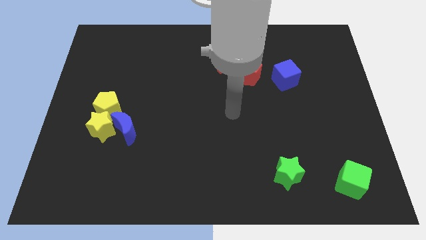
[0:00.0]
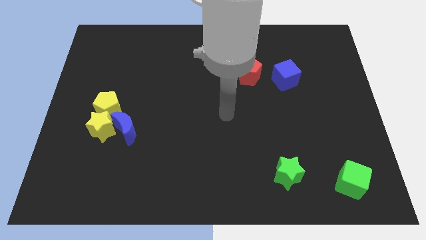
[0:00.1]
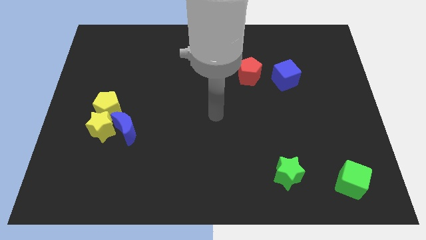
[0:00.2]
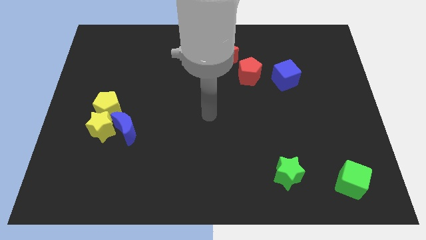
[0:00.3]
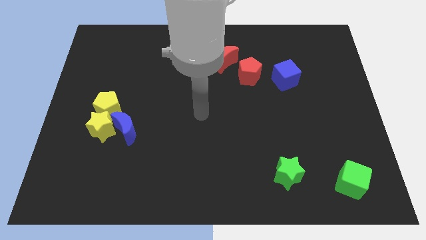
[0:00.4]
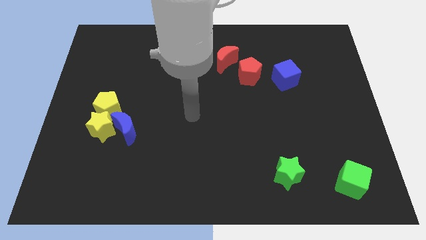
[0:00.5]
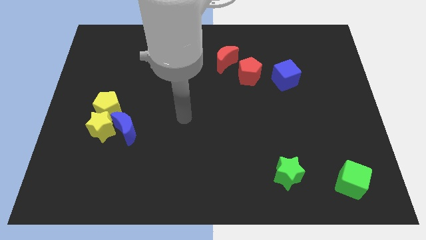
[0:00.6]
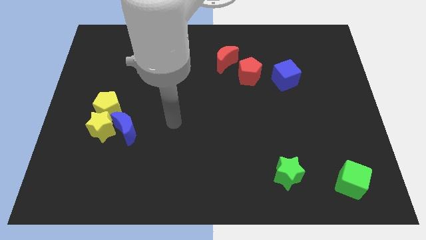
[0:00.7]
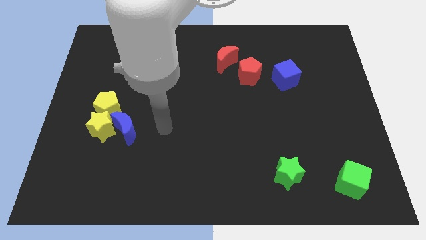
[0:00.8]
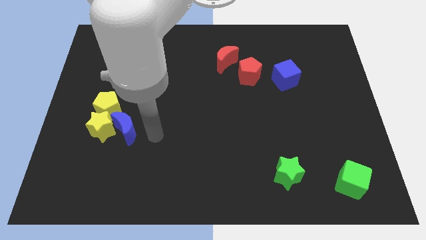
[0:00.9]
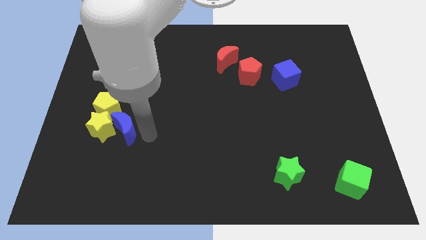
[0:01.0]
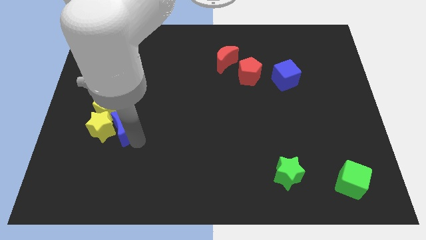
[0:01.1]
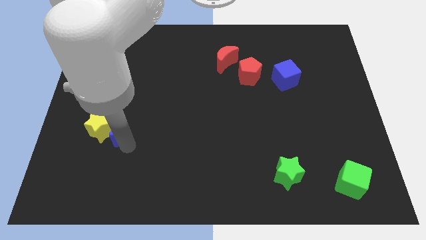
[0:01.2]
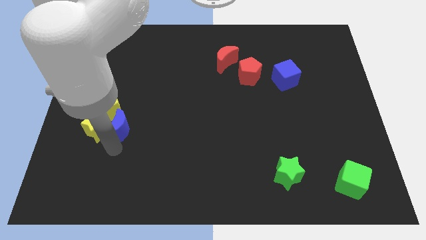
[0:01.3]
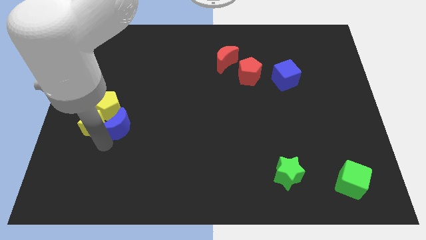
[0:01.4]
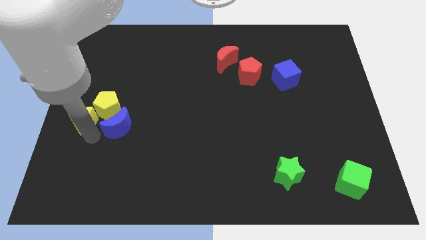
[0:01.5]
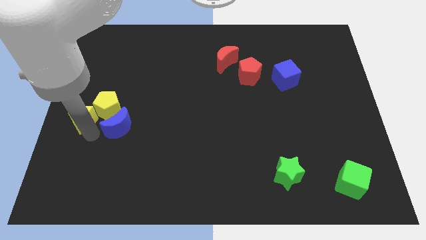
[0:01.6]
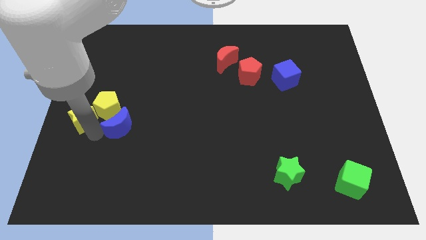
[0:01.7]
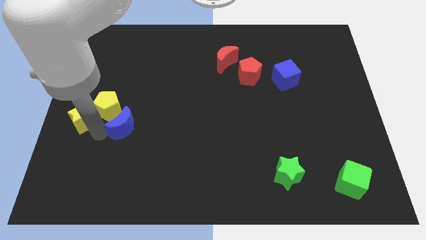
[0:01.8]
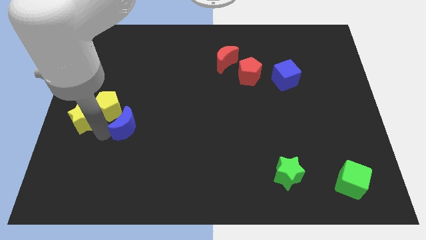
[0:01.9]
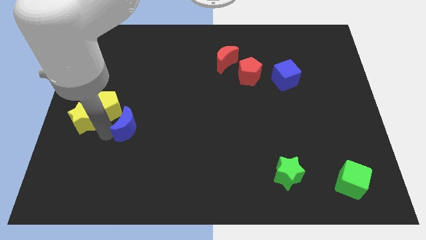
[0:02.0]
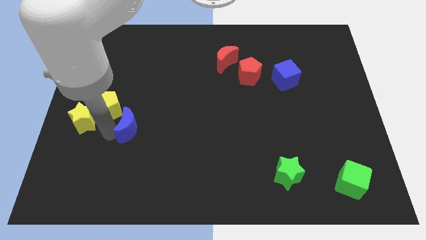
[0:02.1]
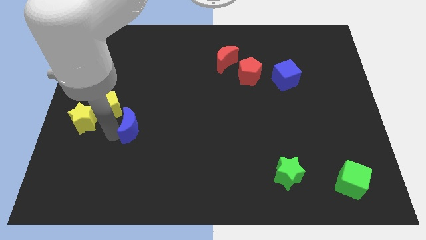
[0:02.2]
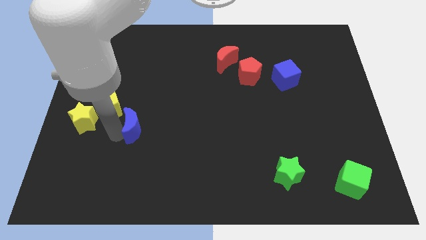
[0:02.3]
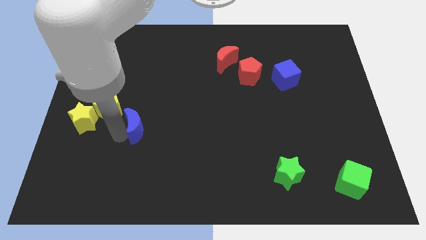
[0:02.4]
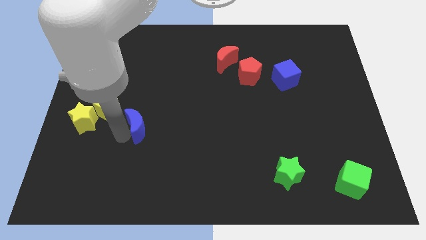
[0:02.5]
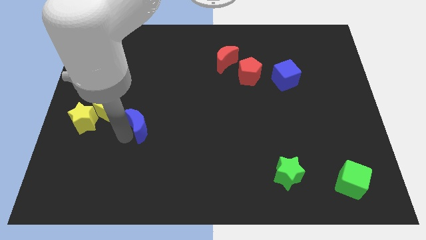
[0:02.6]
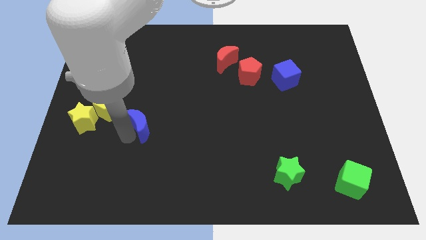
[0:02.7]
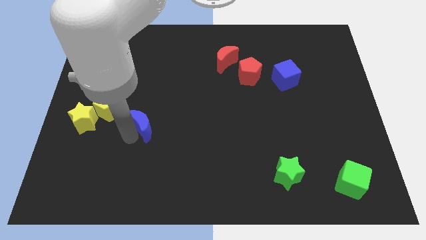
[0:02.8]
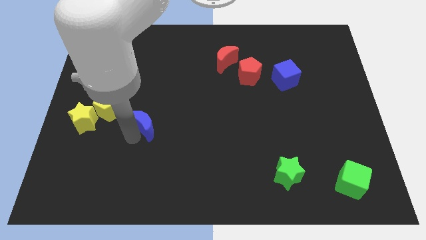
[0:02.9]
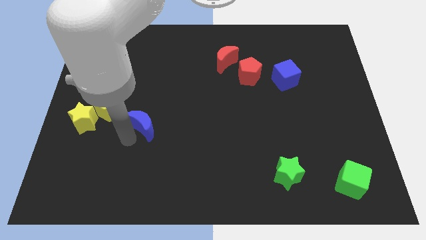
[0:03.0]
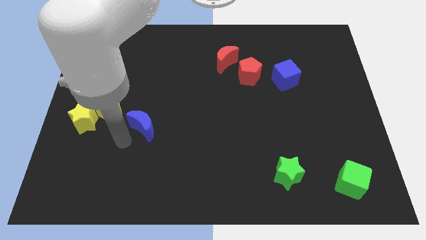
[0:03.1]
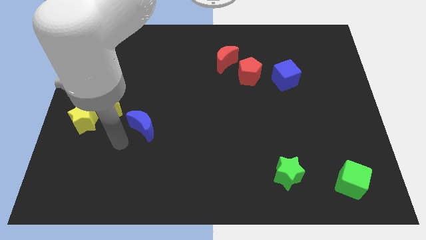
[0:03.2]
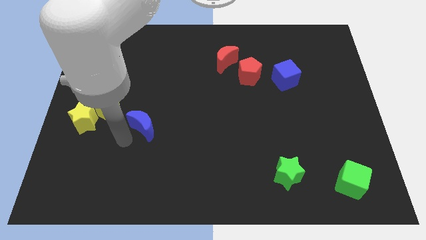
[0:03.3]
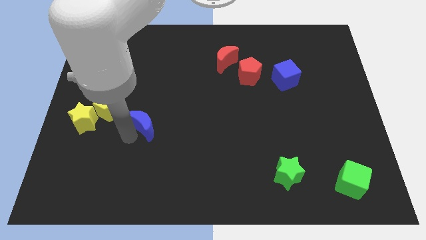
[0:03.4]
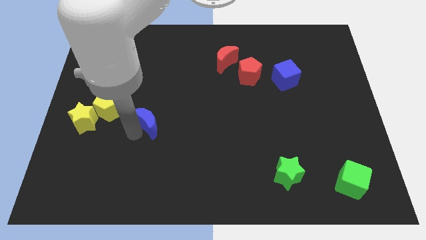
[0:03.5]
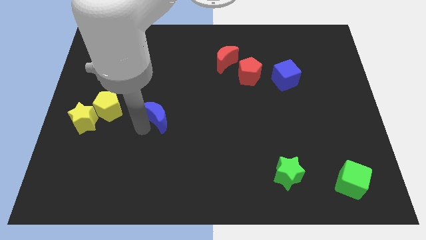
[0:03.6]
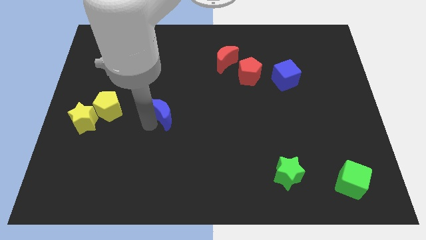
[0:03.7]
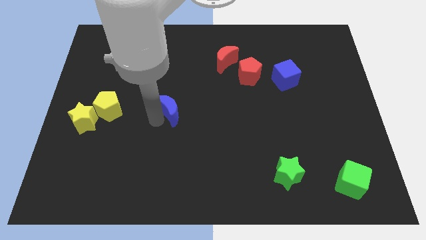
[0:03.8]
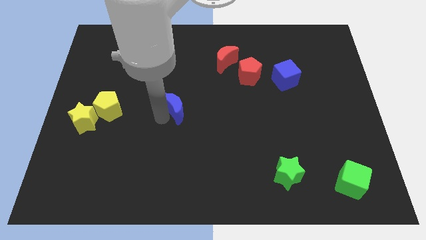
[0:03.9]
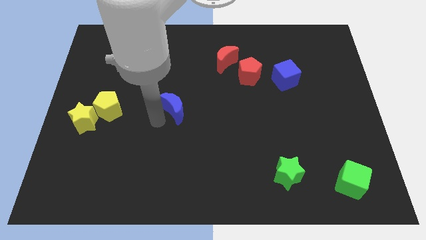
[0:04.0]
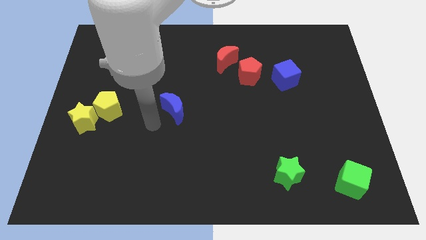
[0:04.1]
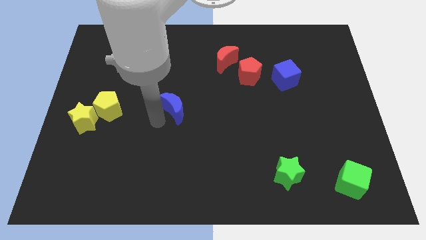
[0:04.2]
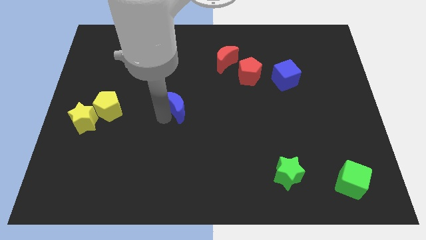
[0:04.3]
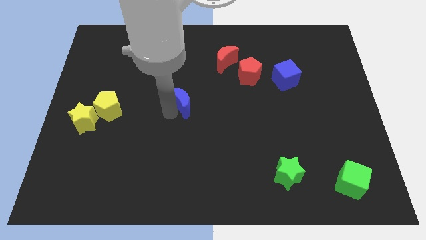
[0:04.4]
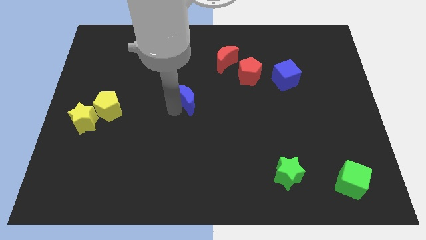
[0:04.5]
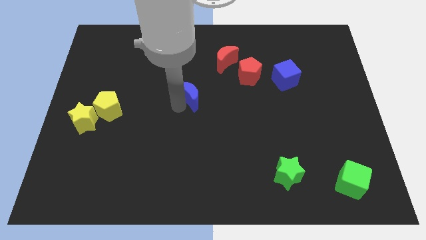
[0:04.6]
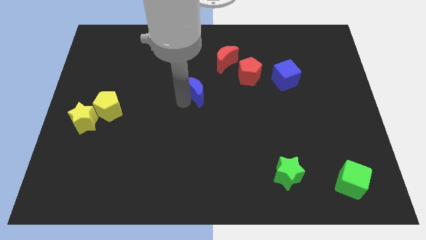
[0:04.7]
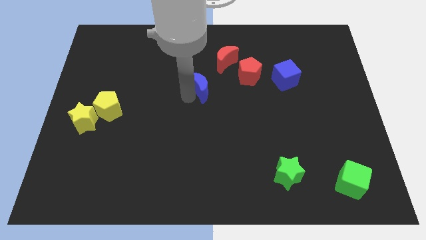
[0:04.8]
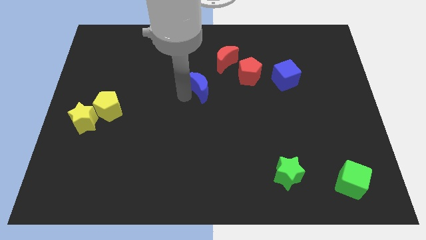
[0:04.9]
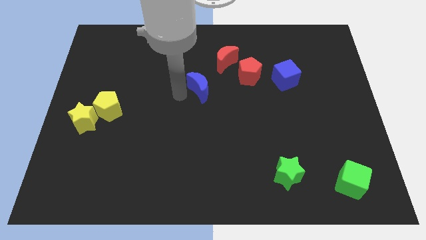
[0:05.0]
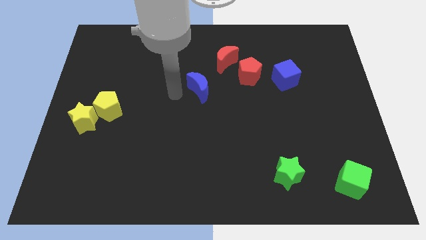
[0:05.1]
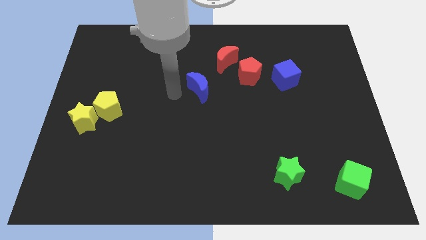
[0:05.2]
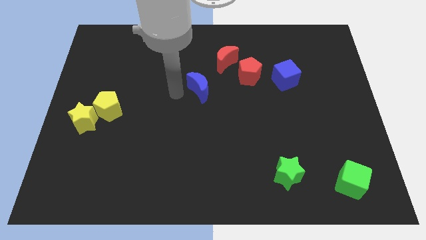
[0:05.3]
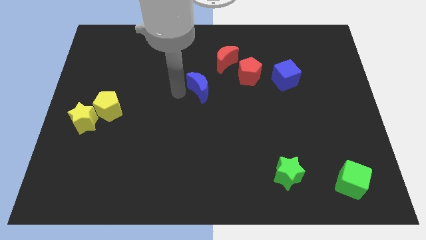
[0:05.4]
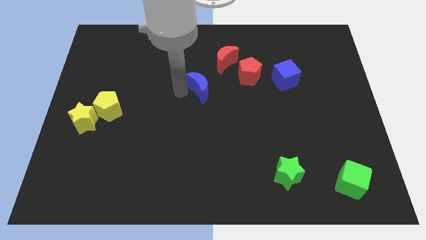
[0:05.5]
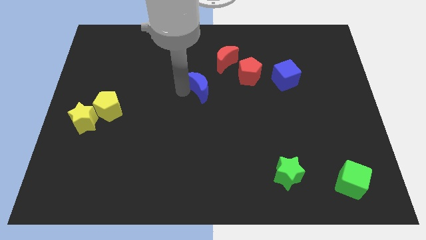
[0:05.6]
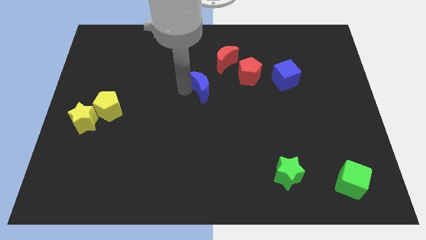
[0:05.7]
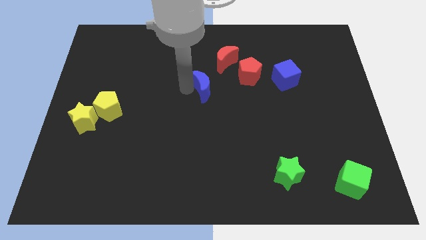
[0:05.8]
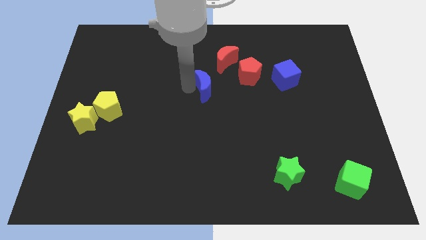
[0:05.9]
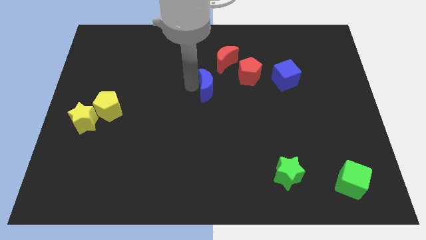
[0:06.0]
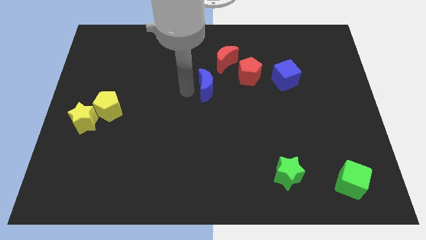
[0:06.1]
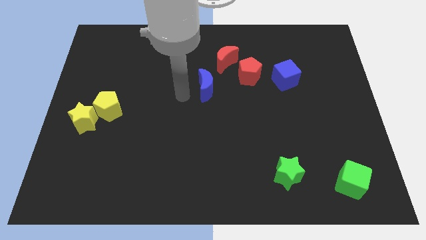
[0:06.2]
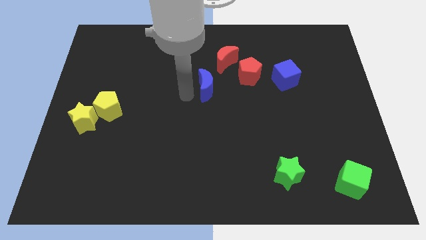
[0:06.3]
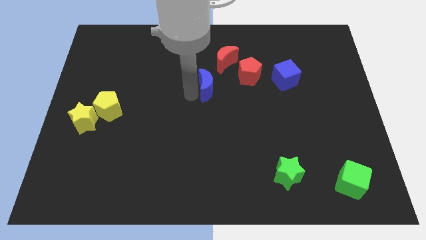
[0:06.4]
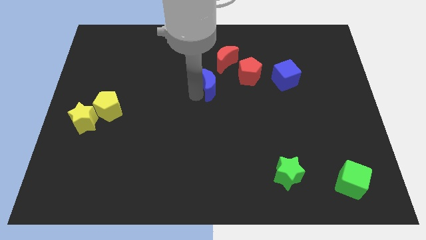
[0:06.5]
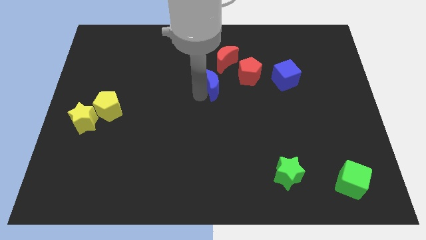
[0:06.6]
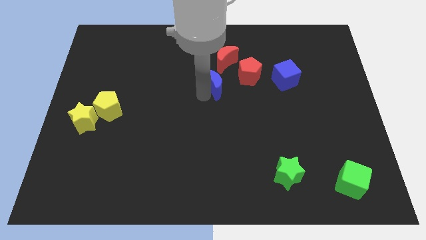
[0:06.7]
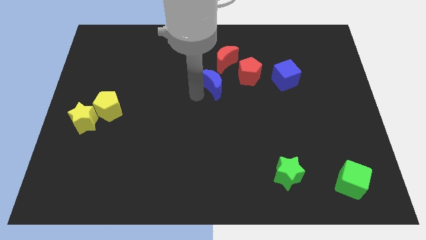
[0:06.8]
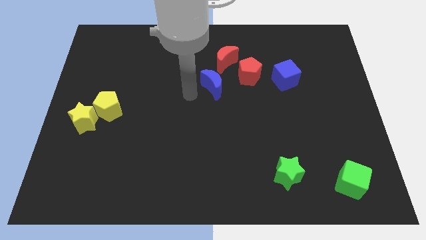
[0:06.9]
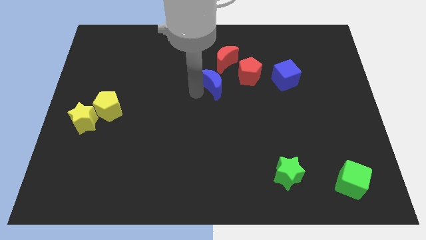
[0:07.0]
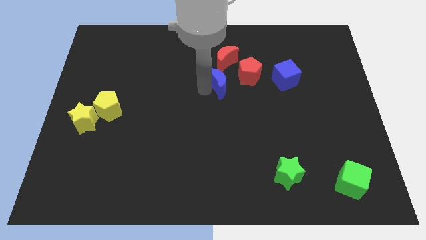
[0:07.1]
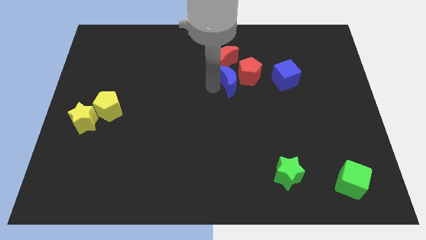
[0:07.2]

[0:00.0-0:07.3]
move the blue moon towards the red pentagon
